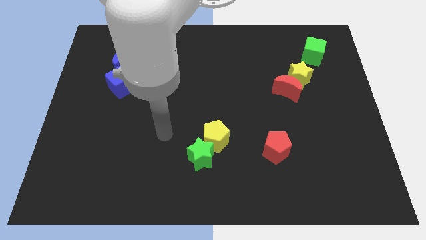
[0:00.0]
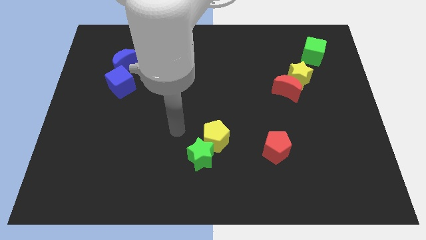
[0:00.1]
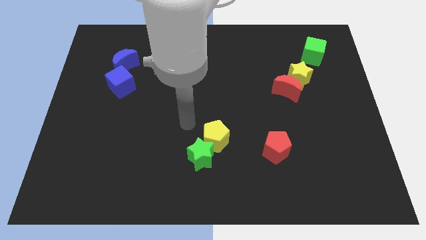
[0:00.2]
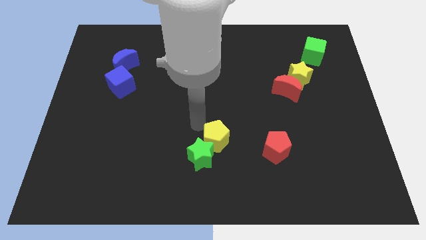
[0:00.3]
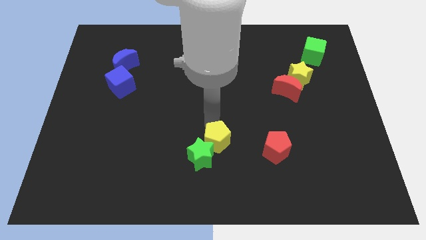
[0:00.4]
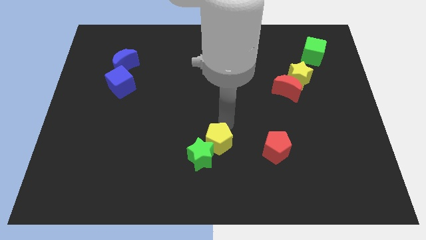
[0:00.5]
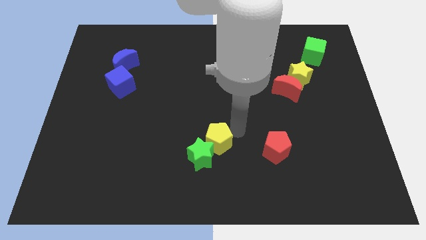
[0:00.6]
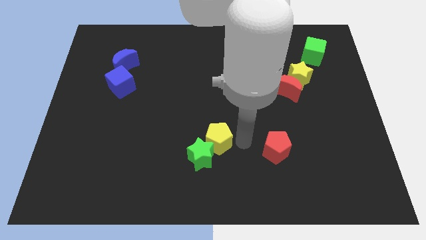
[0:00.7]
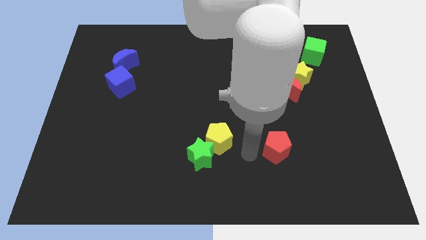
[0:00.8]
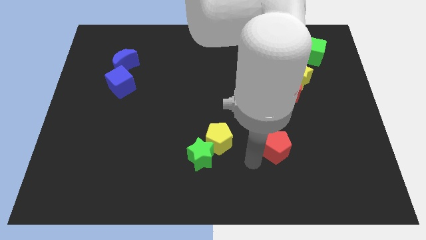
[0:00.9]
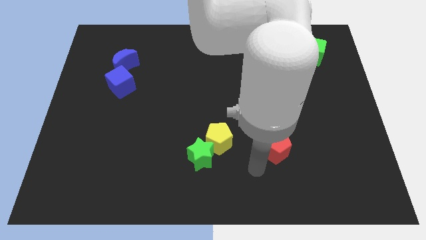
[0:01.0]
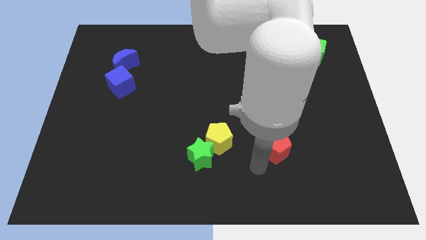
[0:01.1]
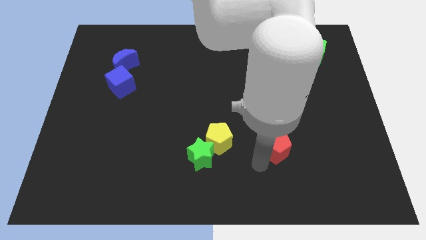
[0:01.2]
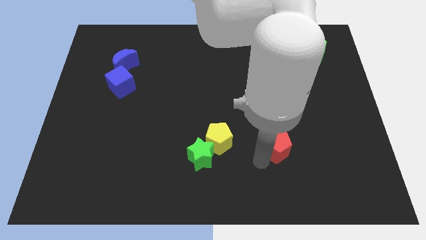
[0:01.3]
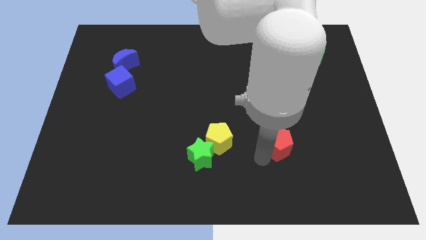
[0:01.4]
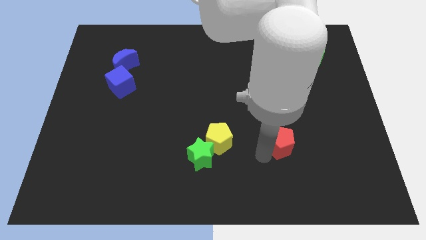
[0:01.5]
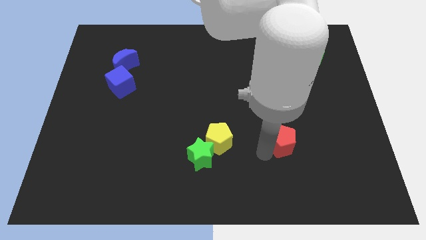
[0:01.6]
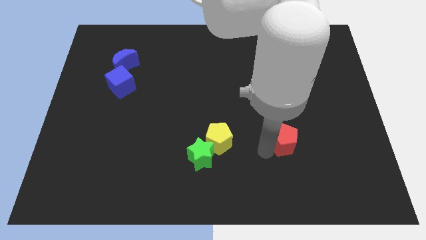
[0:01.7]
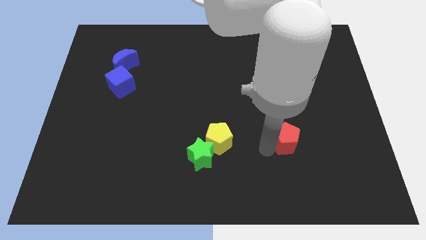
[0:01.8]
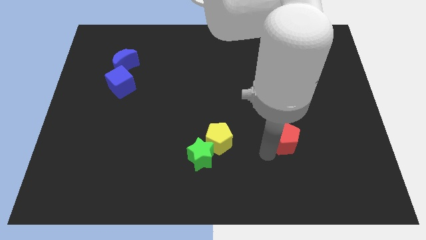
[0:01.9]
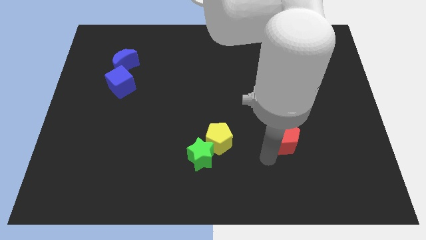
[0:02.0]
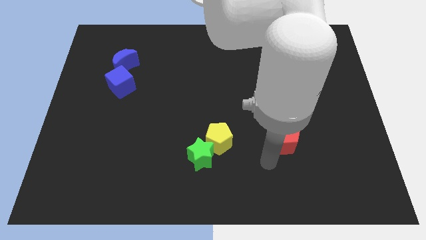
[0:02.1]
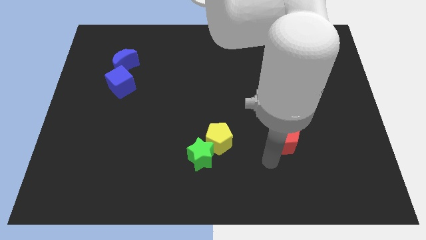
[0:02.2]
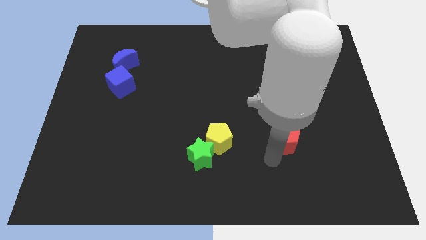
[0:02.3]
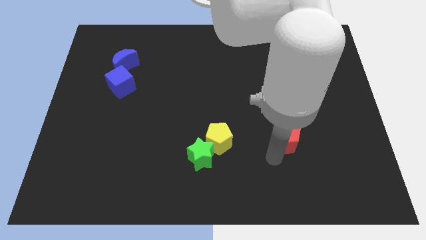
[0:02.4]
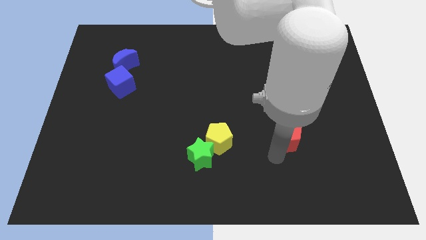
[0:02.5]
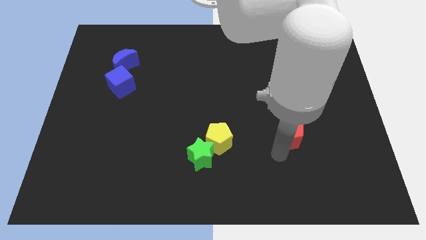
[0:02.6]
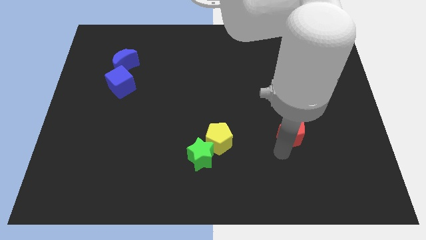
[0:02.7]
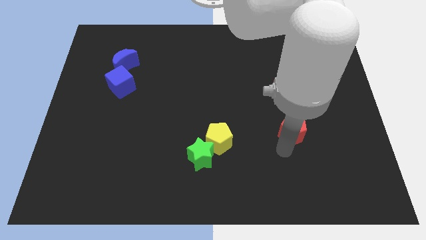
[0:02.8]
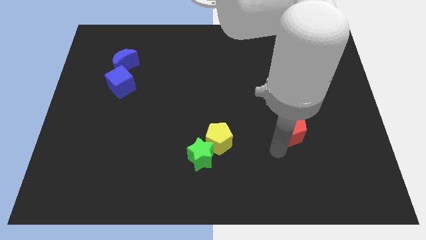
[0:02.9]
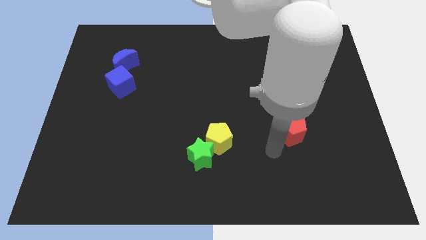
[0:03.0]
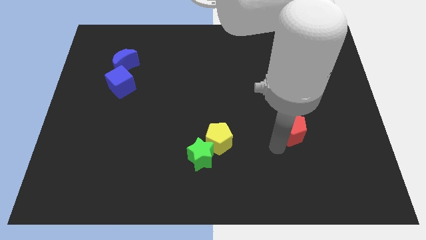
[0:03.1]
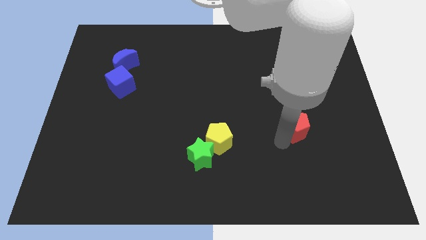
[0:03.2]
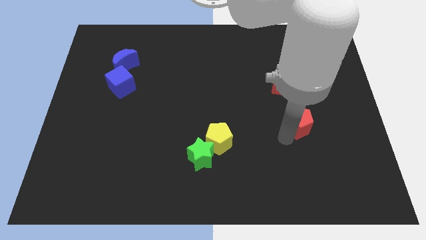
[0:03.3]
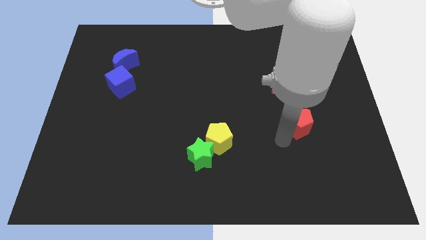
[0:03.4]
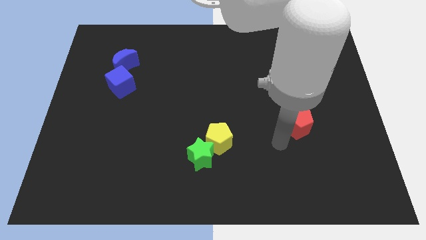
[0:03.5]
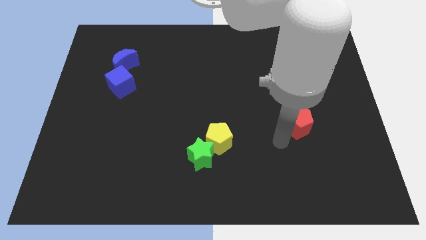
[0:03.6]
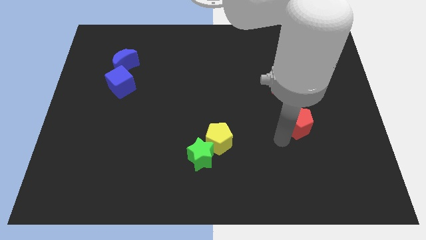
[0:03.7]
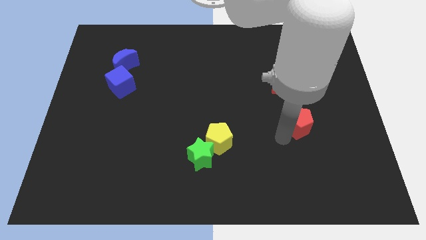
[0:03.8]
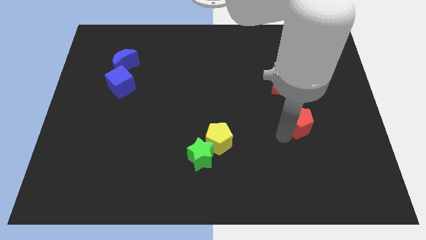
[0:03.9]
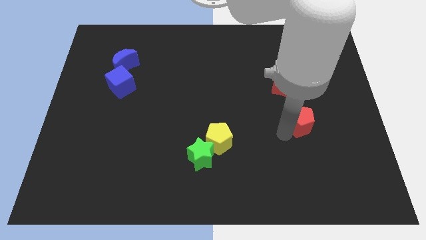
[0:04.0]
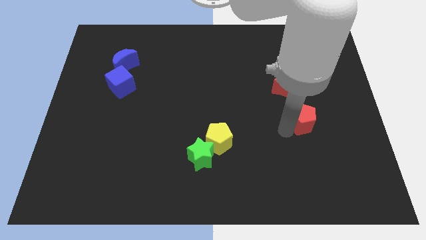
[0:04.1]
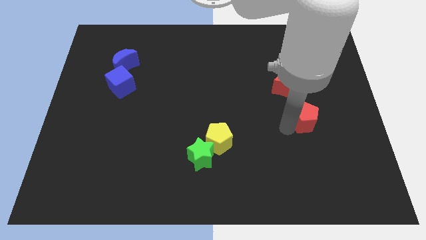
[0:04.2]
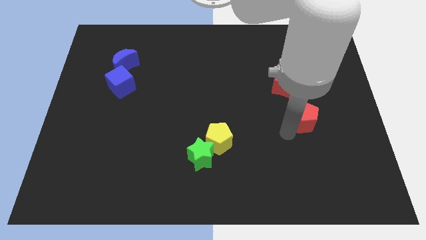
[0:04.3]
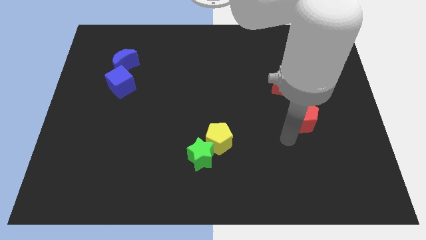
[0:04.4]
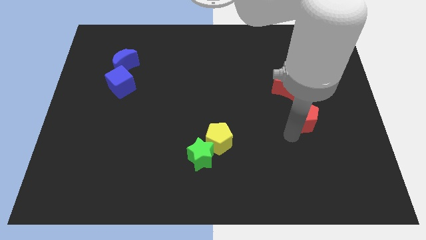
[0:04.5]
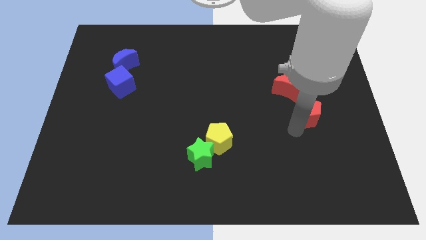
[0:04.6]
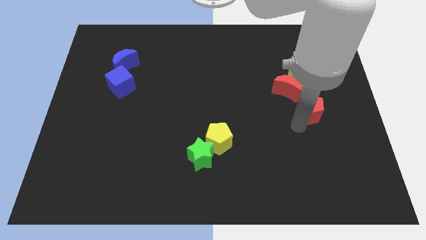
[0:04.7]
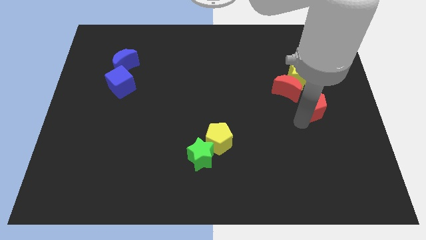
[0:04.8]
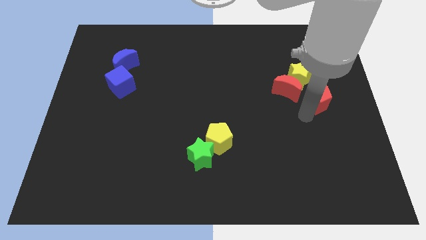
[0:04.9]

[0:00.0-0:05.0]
put the red pentagon right of the red moon

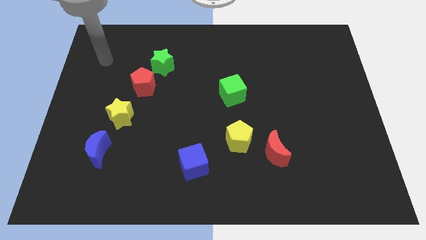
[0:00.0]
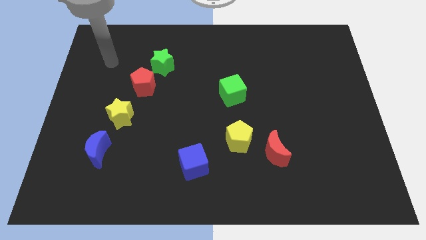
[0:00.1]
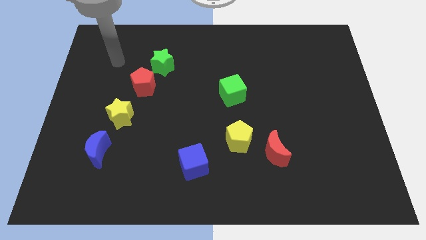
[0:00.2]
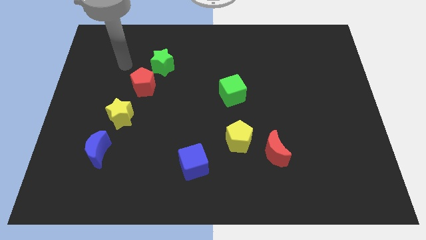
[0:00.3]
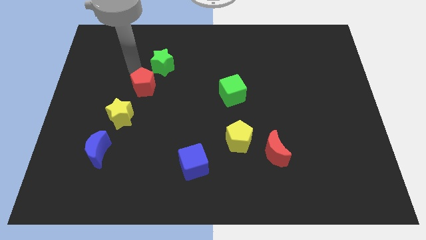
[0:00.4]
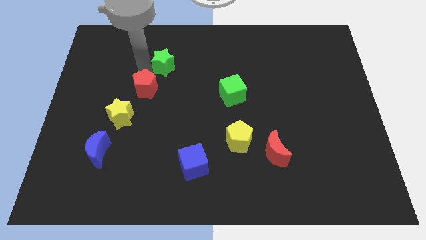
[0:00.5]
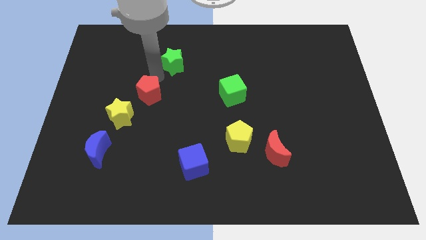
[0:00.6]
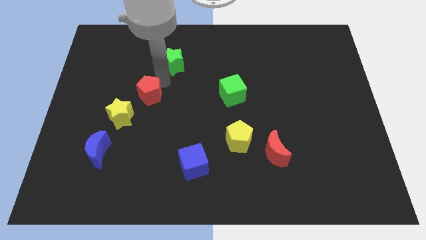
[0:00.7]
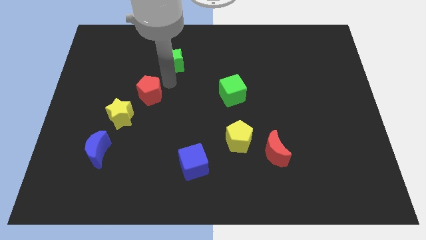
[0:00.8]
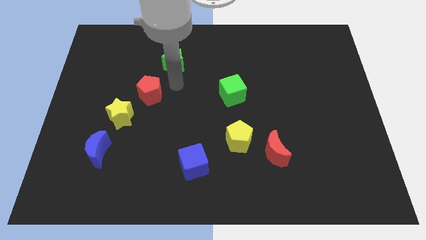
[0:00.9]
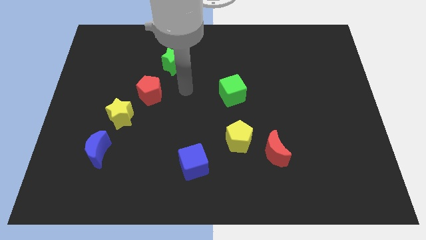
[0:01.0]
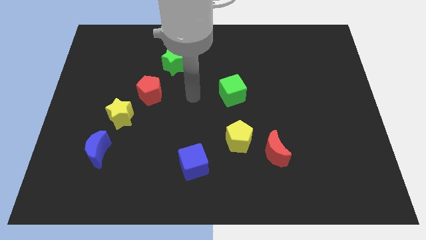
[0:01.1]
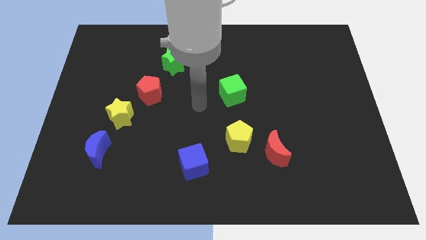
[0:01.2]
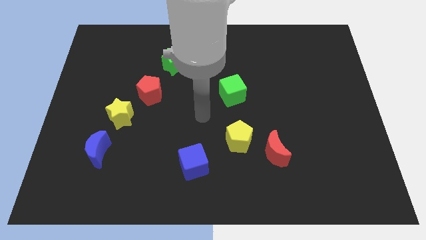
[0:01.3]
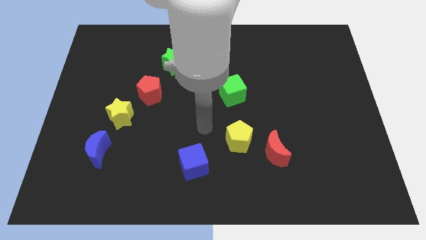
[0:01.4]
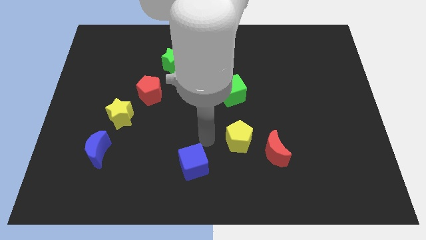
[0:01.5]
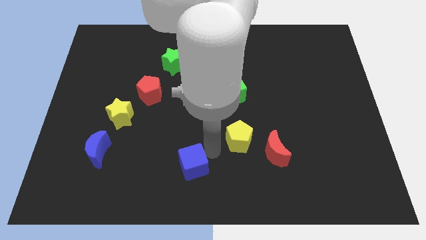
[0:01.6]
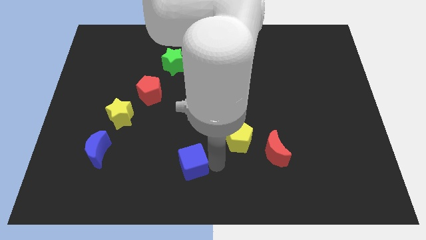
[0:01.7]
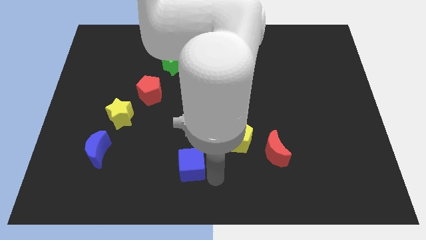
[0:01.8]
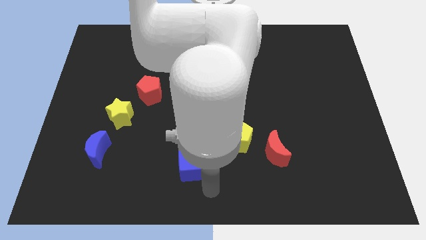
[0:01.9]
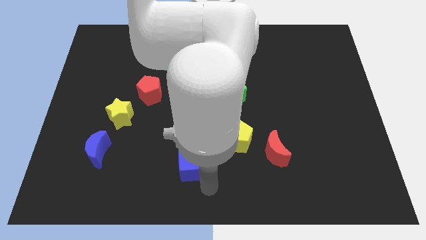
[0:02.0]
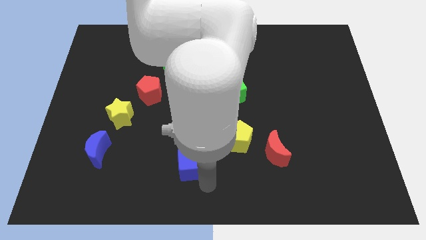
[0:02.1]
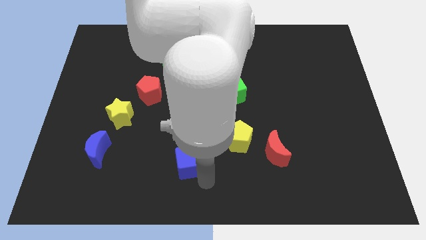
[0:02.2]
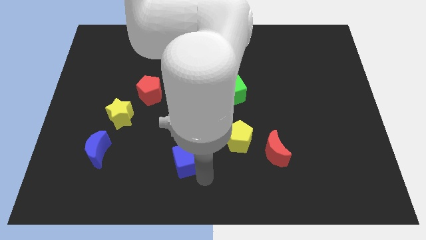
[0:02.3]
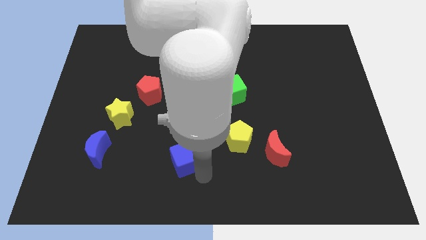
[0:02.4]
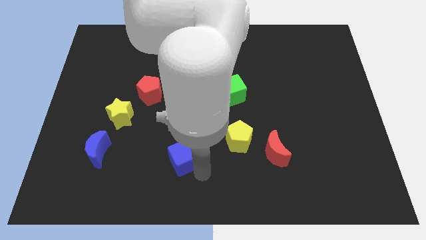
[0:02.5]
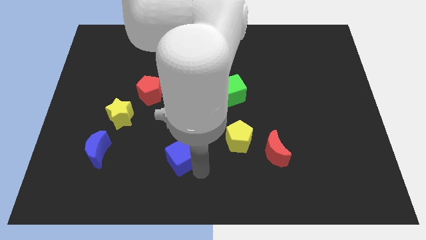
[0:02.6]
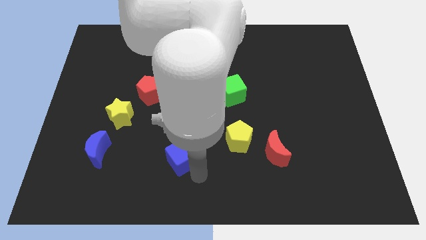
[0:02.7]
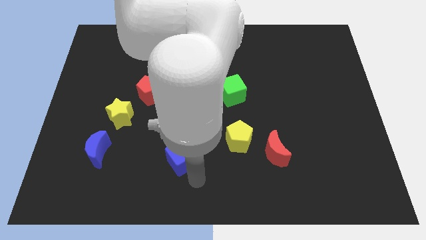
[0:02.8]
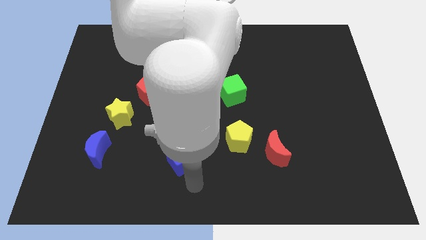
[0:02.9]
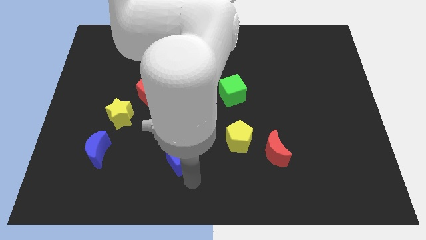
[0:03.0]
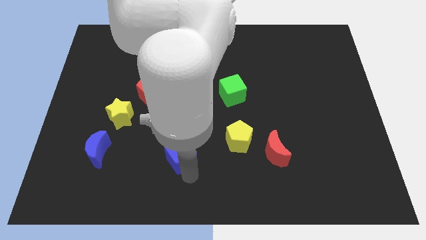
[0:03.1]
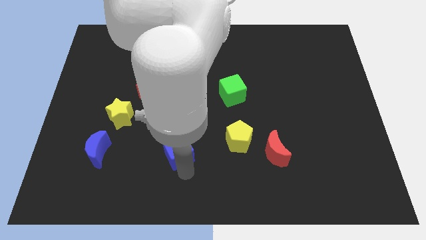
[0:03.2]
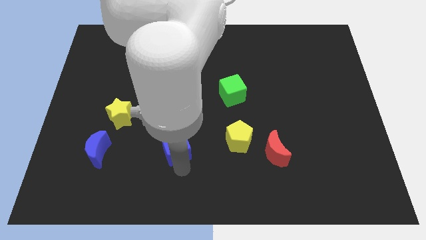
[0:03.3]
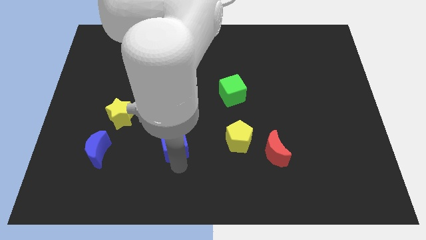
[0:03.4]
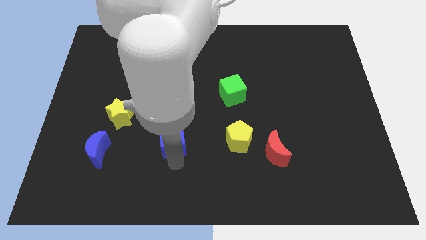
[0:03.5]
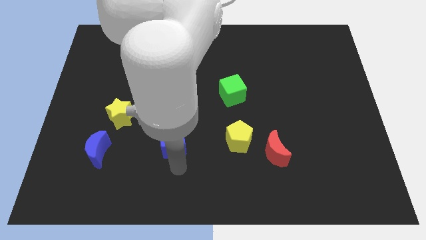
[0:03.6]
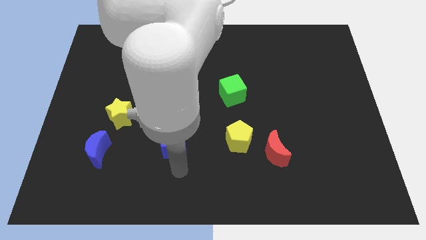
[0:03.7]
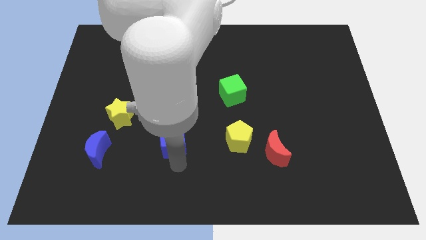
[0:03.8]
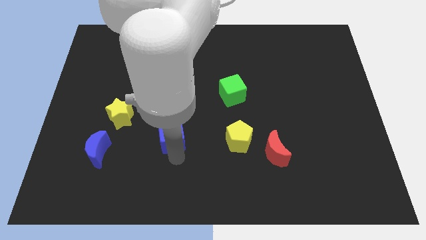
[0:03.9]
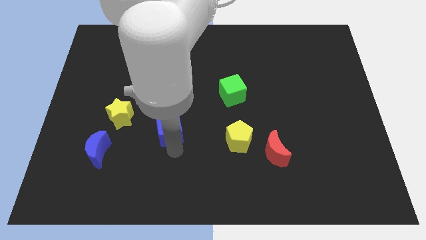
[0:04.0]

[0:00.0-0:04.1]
push the blue cube to the right of the yellow star
